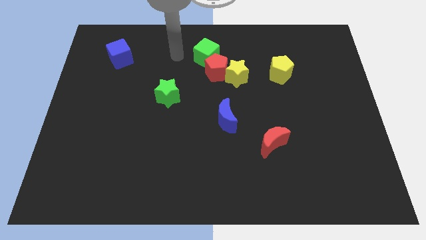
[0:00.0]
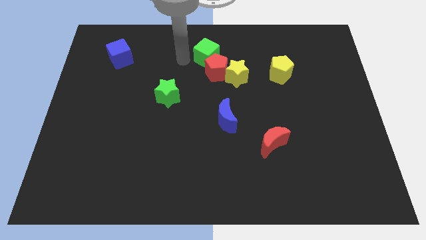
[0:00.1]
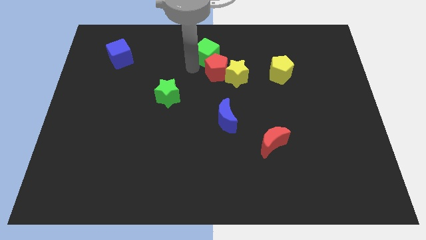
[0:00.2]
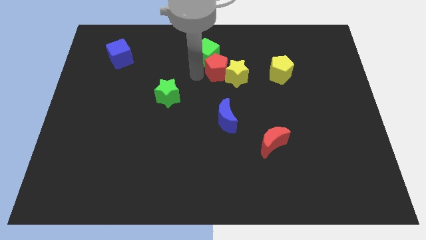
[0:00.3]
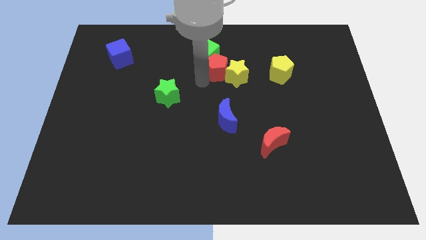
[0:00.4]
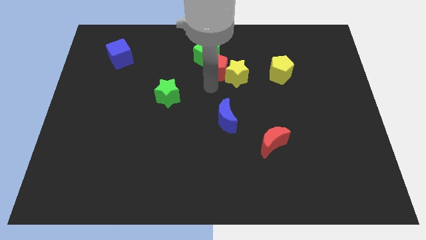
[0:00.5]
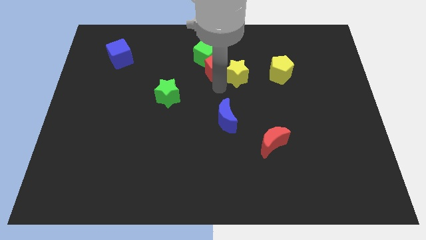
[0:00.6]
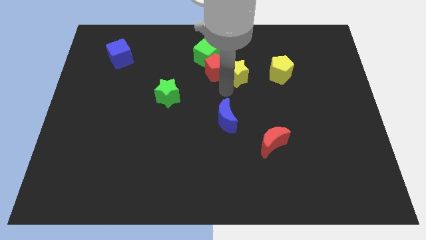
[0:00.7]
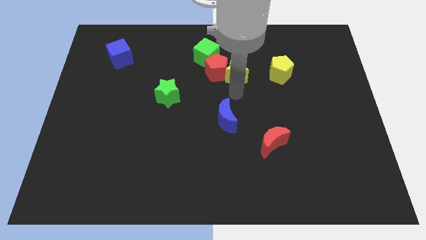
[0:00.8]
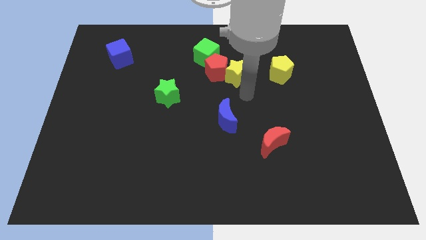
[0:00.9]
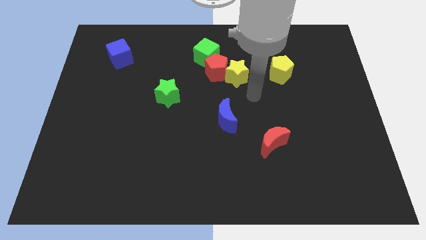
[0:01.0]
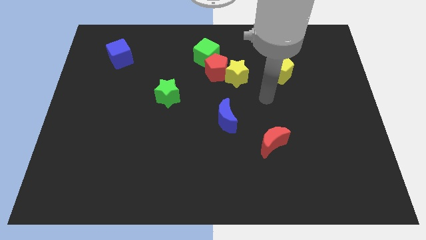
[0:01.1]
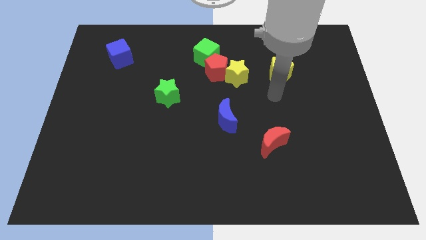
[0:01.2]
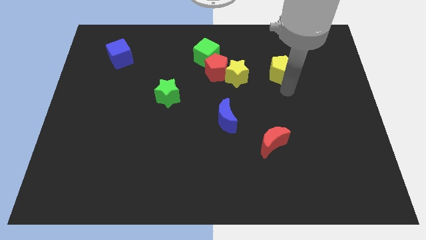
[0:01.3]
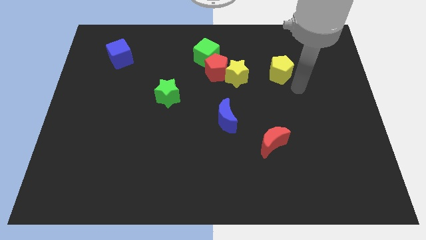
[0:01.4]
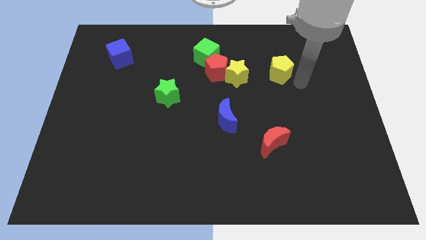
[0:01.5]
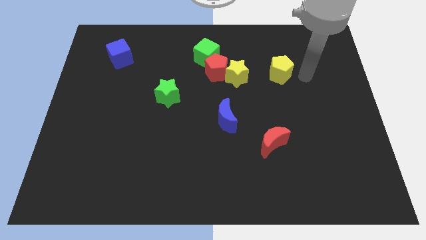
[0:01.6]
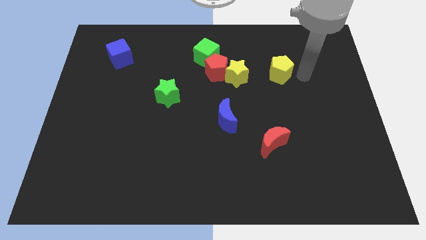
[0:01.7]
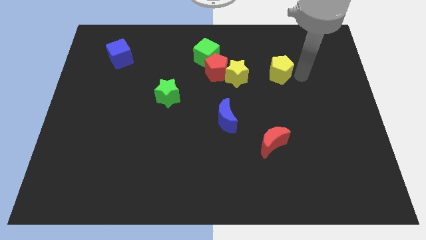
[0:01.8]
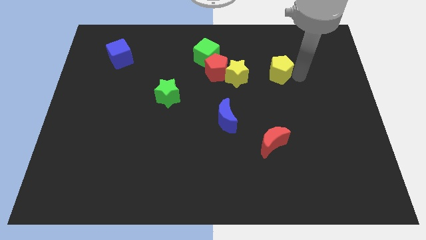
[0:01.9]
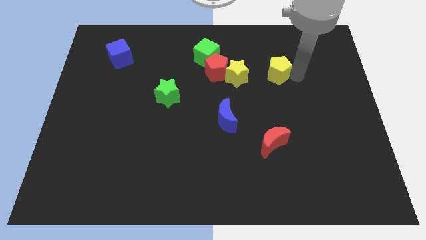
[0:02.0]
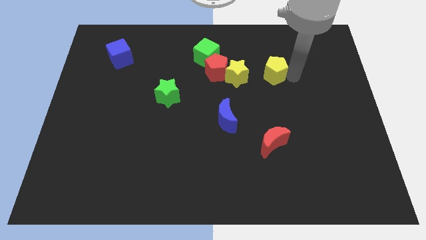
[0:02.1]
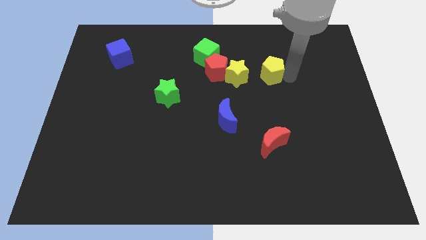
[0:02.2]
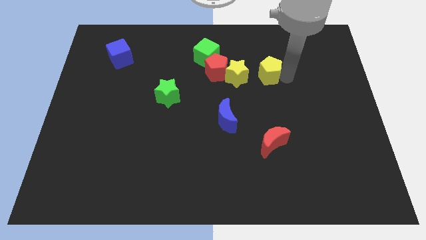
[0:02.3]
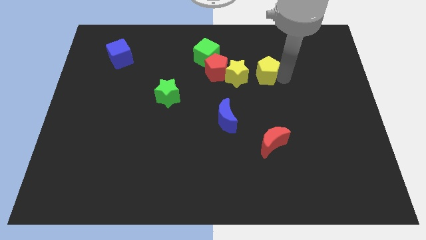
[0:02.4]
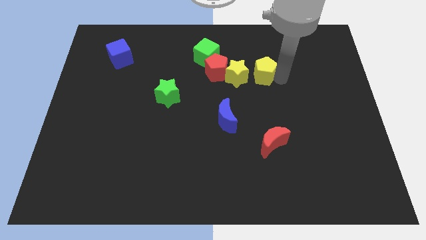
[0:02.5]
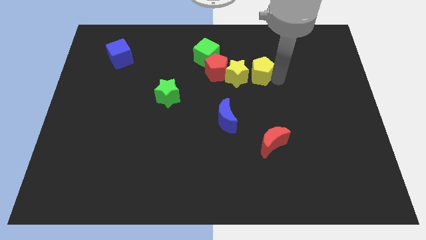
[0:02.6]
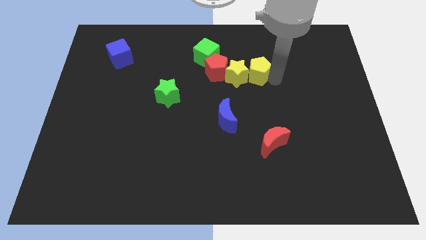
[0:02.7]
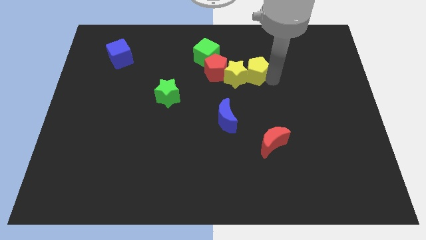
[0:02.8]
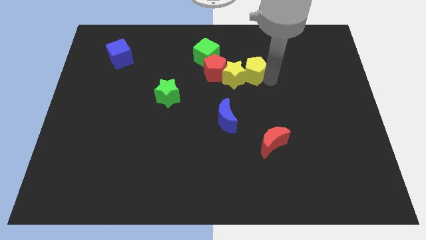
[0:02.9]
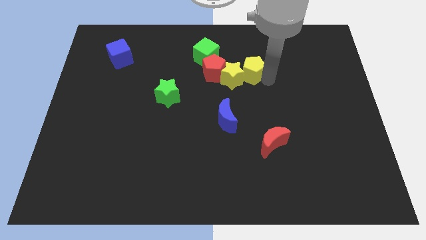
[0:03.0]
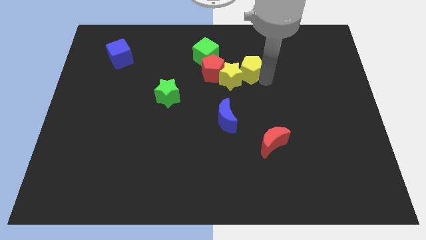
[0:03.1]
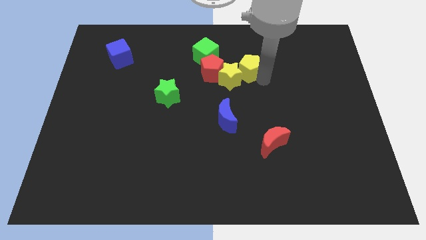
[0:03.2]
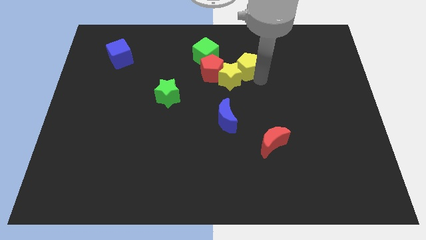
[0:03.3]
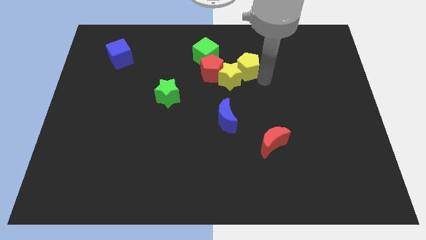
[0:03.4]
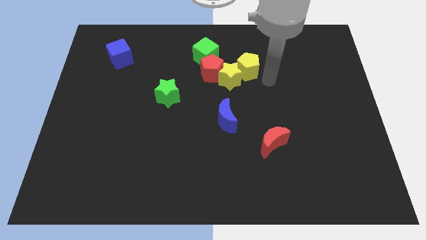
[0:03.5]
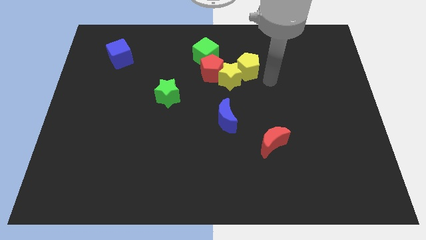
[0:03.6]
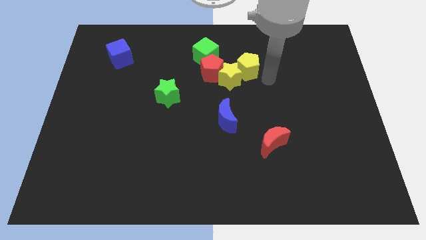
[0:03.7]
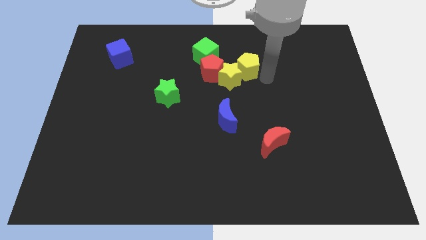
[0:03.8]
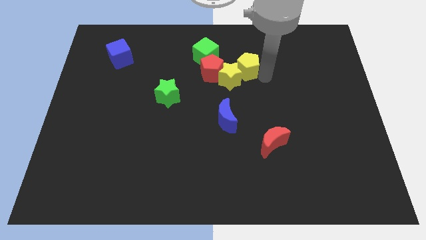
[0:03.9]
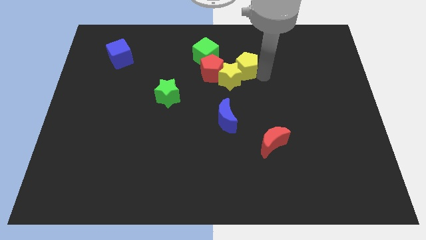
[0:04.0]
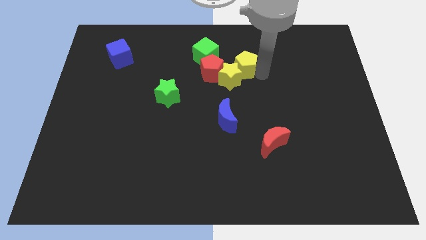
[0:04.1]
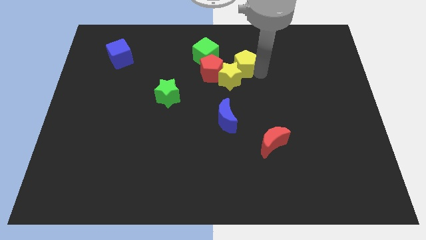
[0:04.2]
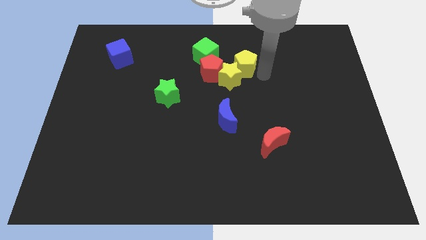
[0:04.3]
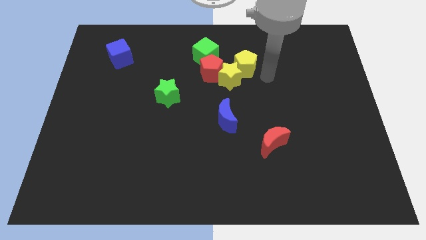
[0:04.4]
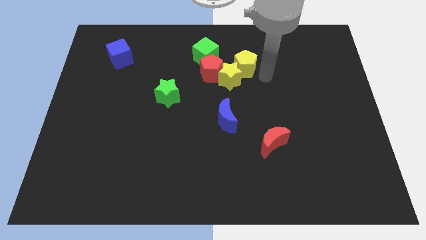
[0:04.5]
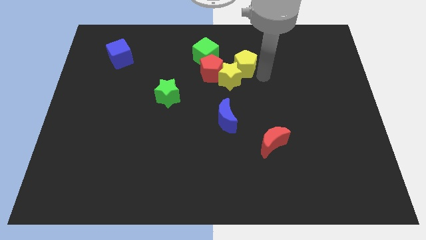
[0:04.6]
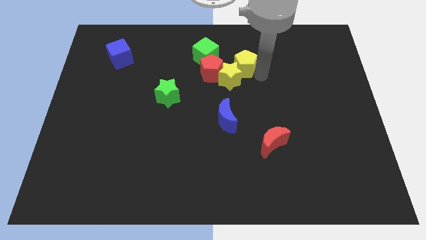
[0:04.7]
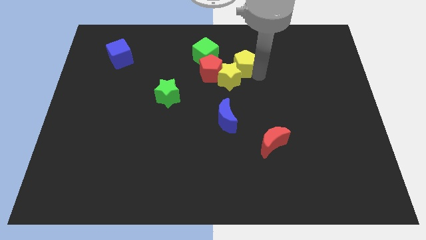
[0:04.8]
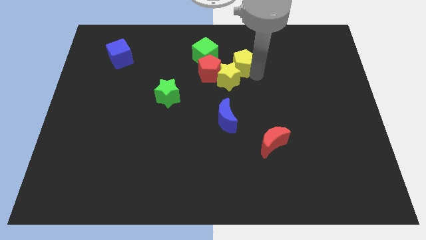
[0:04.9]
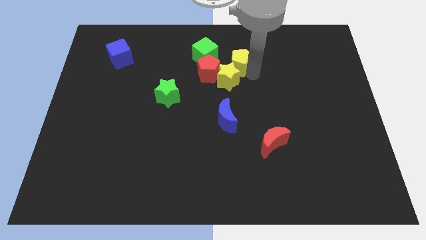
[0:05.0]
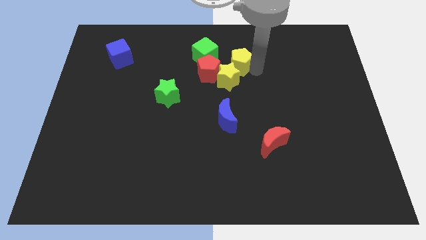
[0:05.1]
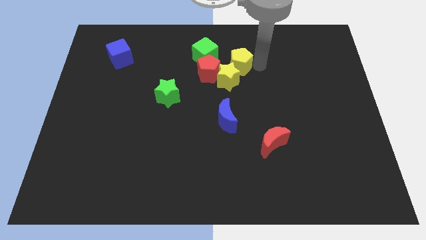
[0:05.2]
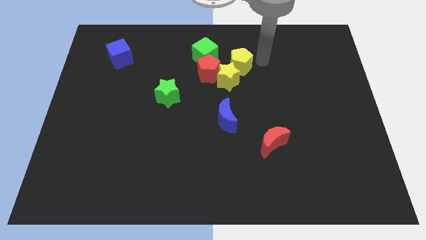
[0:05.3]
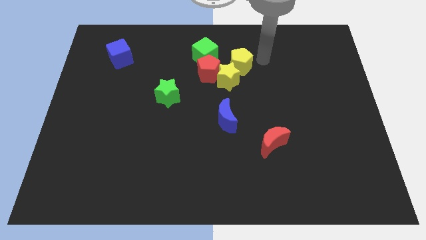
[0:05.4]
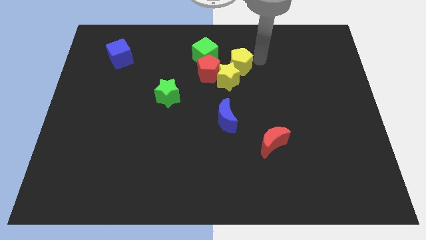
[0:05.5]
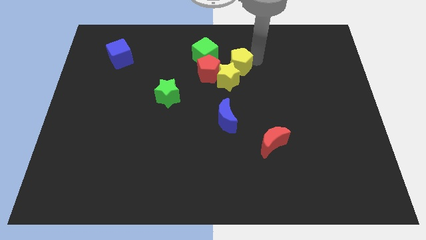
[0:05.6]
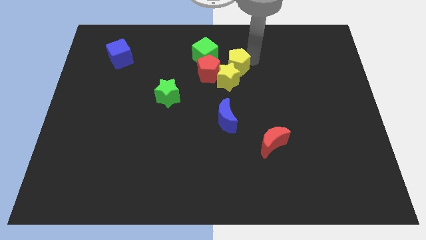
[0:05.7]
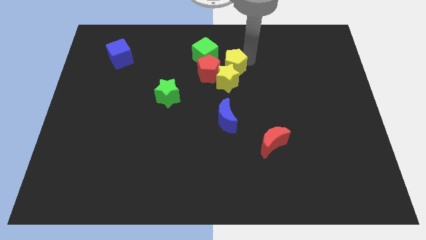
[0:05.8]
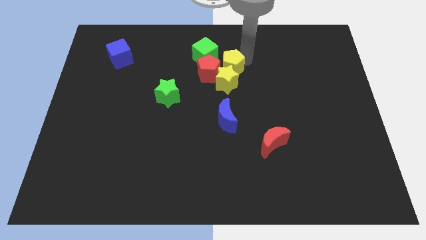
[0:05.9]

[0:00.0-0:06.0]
push the yellow pentagon towards the red pentagon

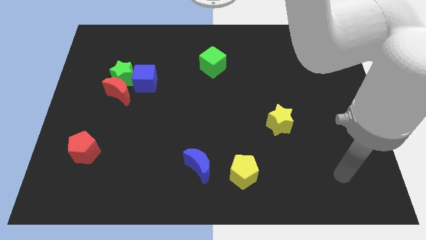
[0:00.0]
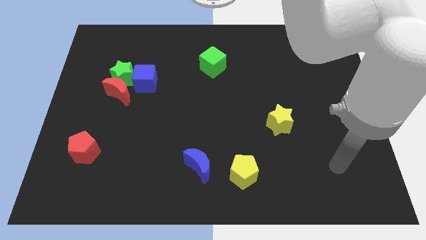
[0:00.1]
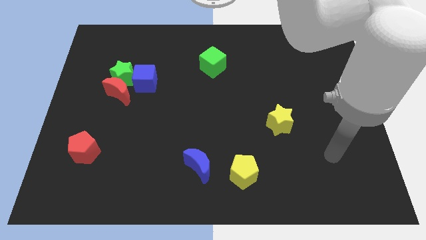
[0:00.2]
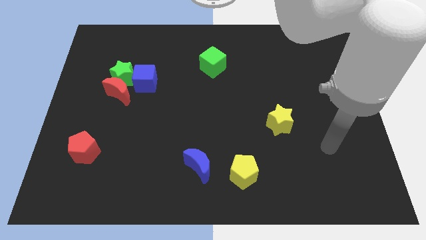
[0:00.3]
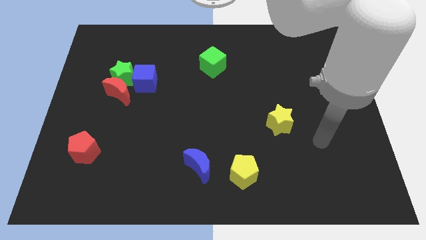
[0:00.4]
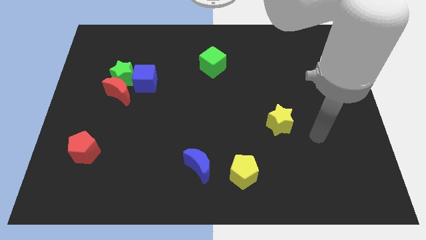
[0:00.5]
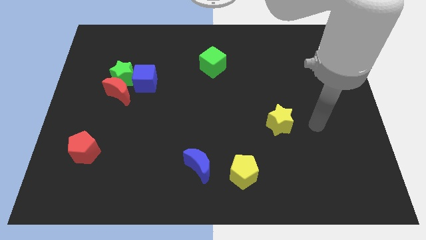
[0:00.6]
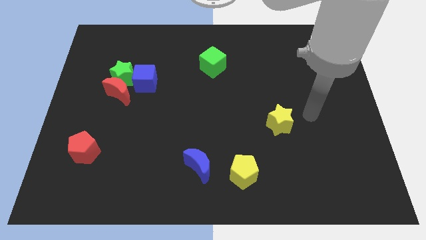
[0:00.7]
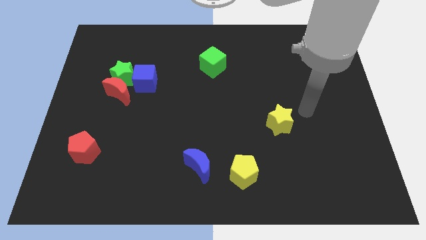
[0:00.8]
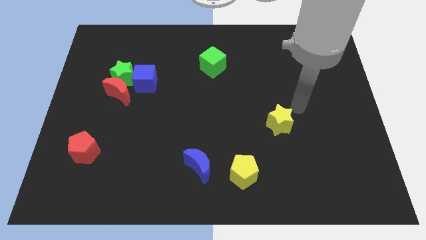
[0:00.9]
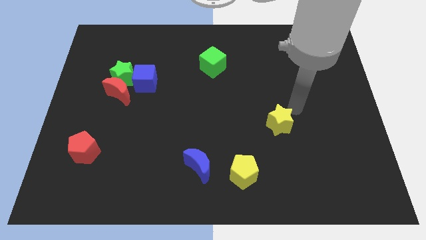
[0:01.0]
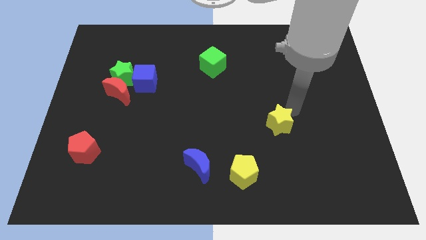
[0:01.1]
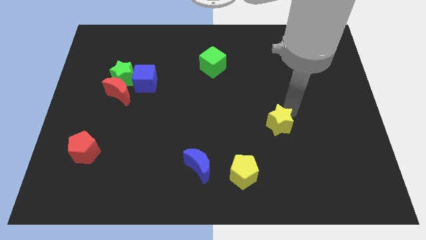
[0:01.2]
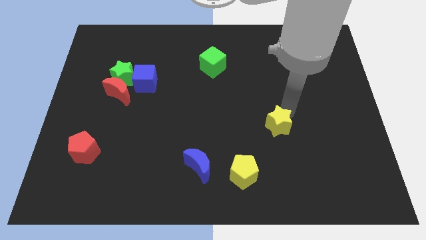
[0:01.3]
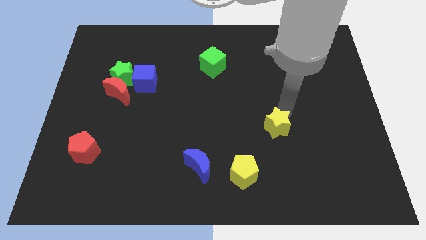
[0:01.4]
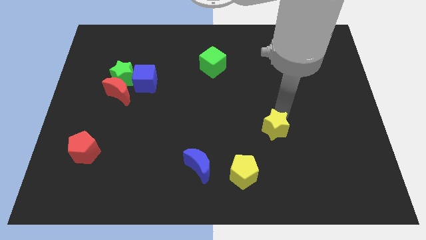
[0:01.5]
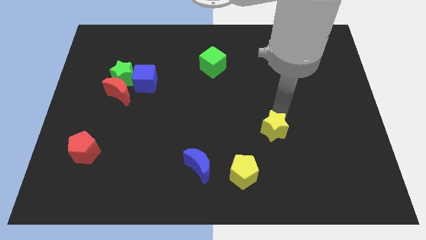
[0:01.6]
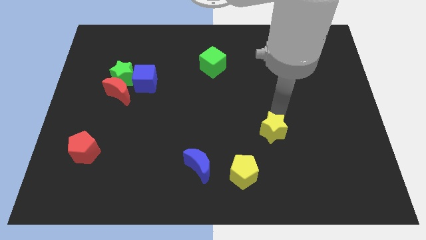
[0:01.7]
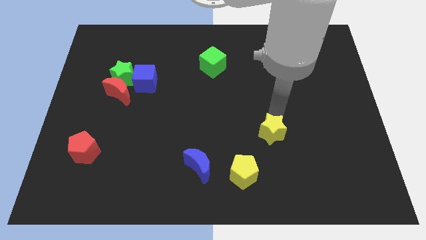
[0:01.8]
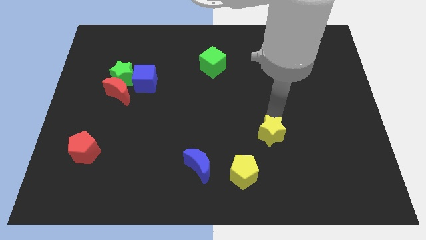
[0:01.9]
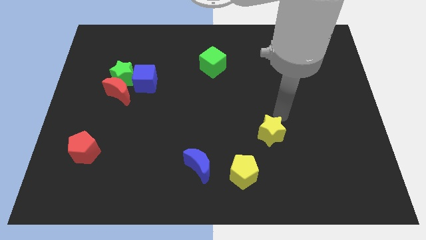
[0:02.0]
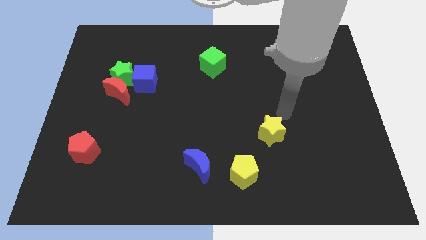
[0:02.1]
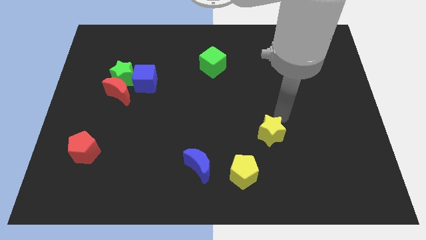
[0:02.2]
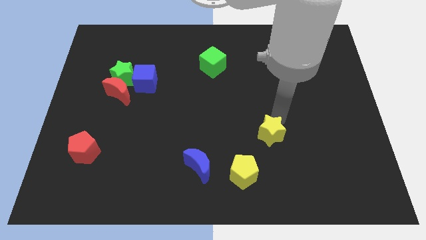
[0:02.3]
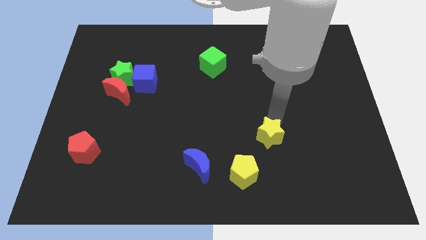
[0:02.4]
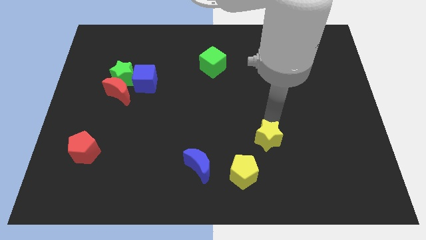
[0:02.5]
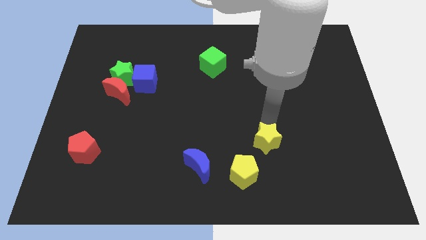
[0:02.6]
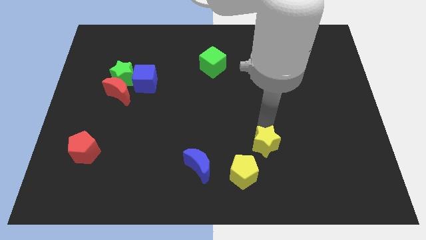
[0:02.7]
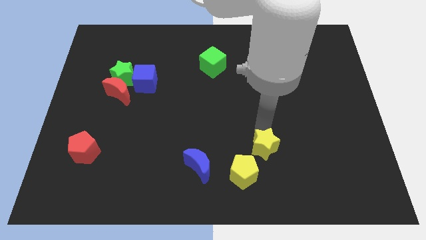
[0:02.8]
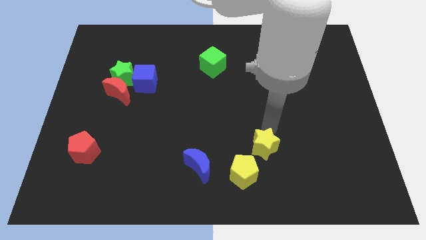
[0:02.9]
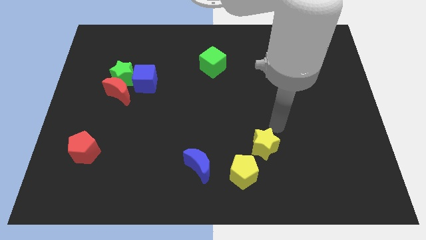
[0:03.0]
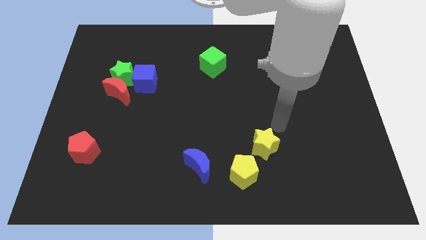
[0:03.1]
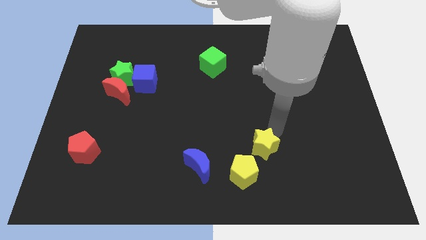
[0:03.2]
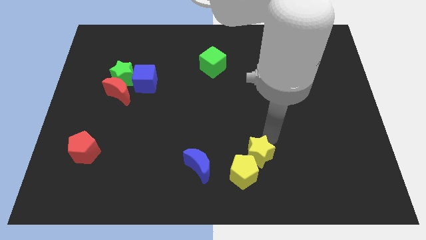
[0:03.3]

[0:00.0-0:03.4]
put the yellow star next to the yellow pentagon
